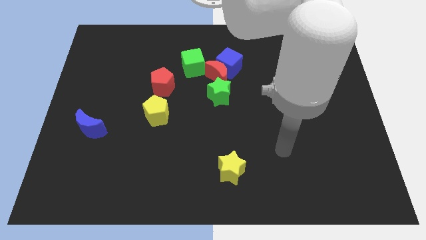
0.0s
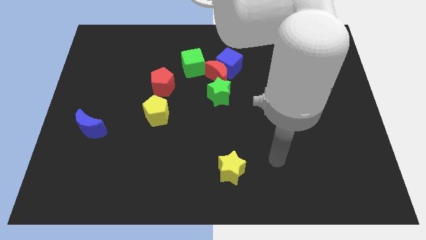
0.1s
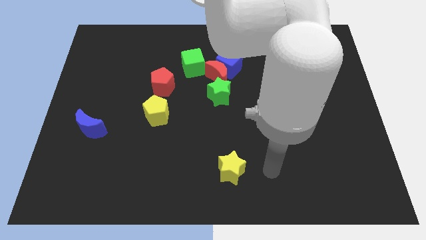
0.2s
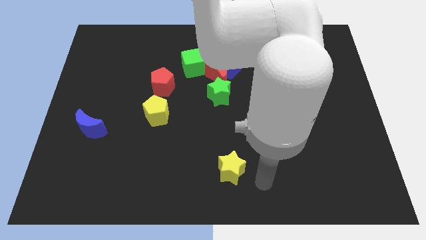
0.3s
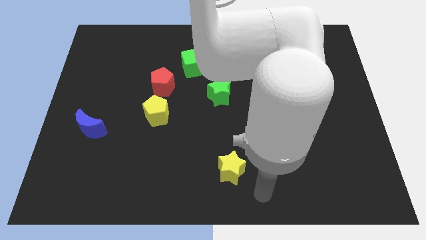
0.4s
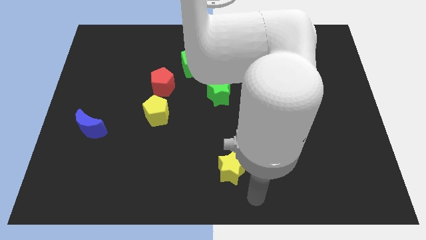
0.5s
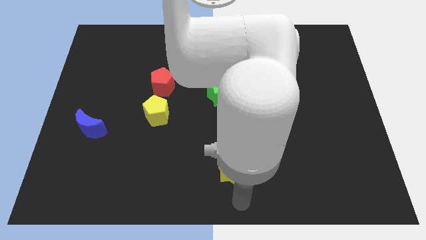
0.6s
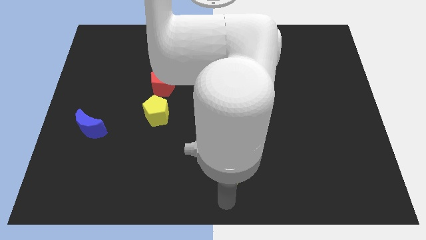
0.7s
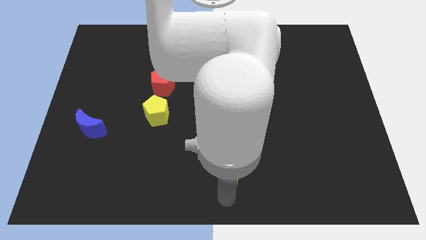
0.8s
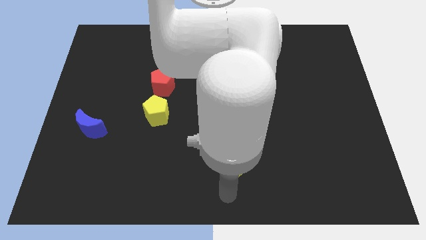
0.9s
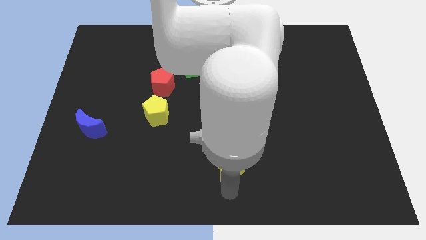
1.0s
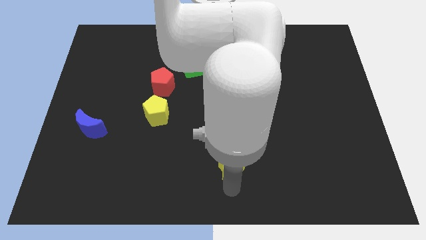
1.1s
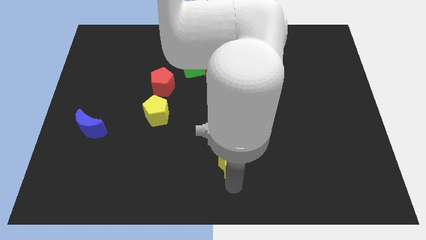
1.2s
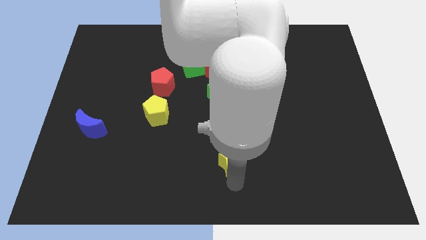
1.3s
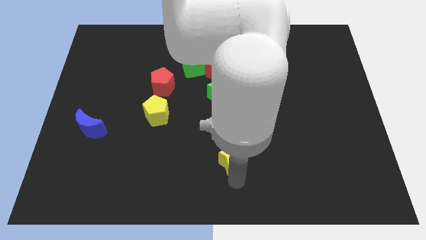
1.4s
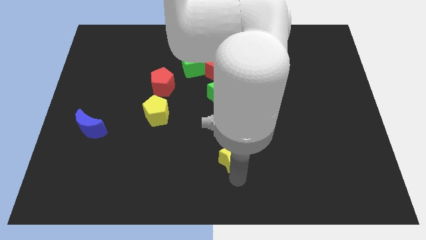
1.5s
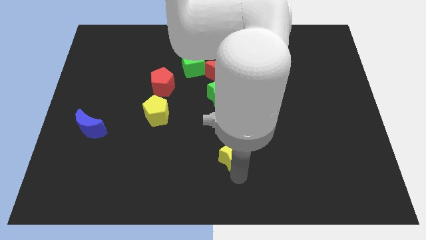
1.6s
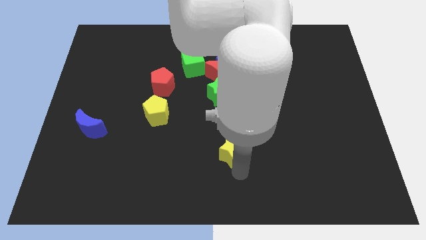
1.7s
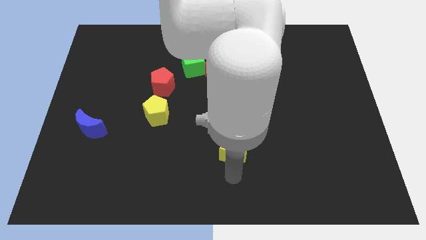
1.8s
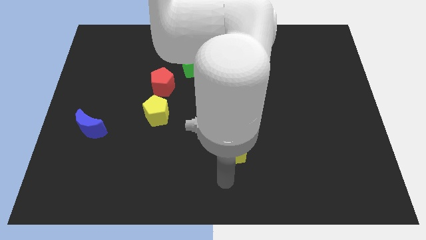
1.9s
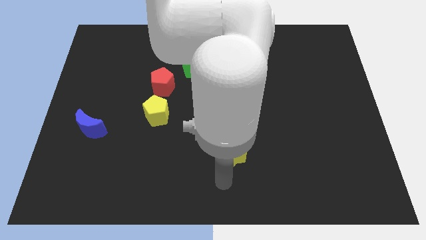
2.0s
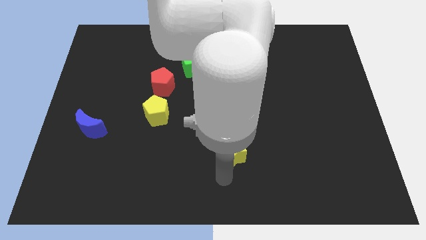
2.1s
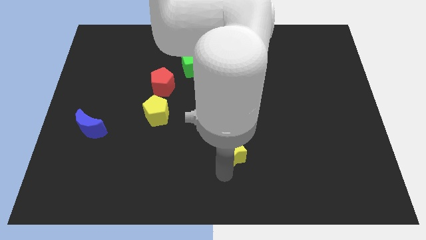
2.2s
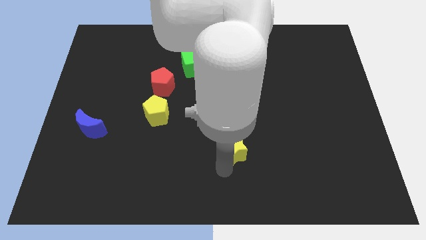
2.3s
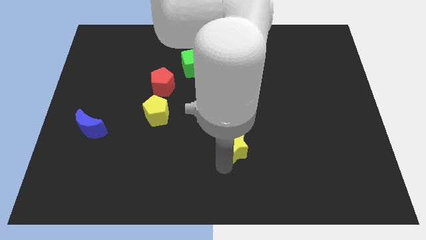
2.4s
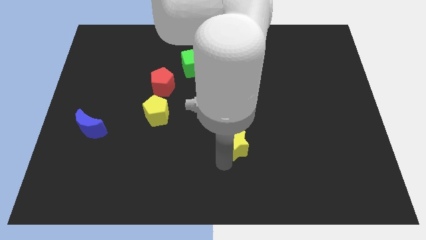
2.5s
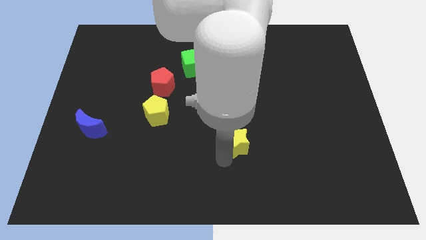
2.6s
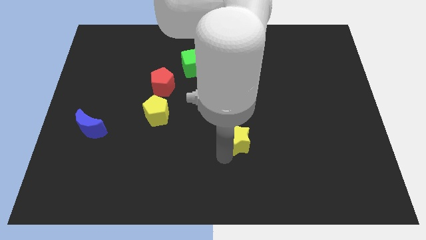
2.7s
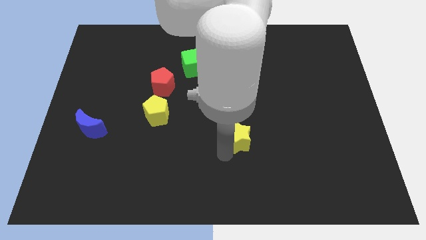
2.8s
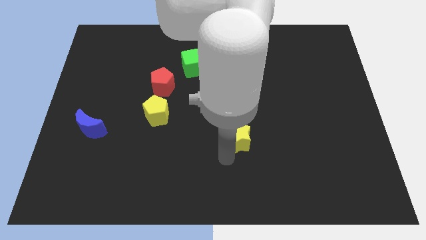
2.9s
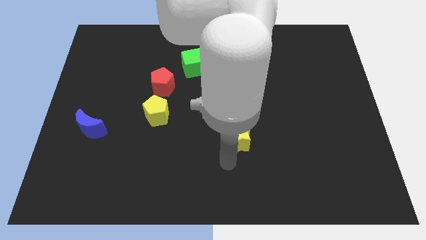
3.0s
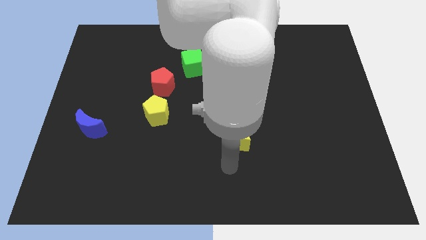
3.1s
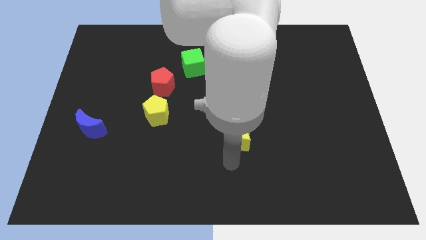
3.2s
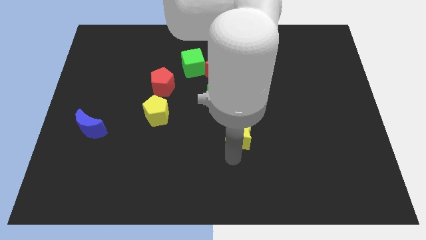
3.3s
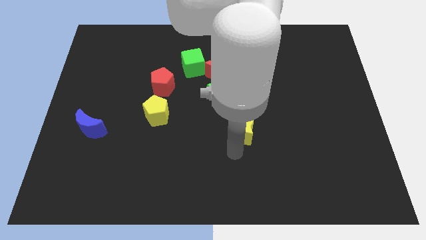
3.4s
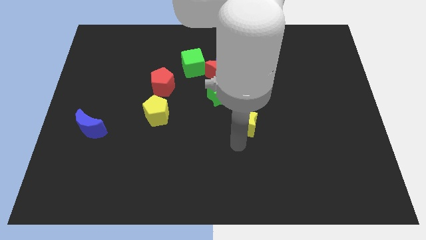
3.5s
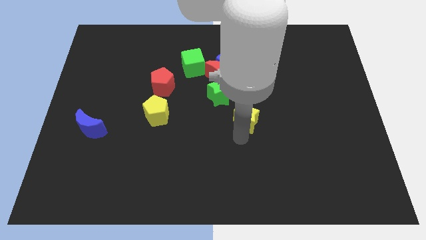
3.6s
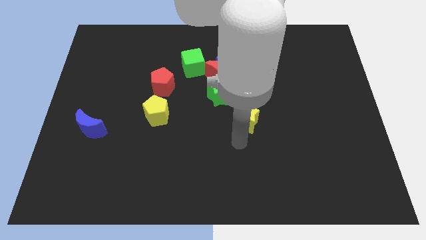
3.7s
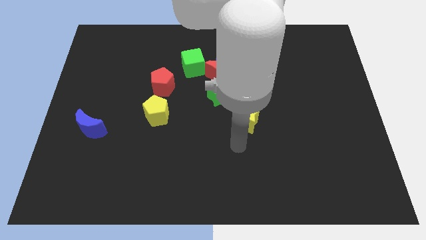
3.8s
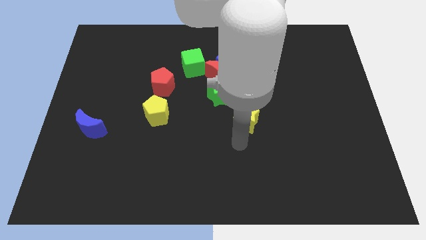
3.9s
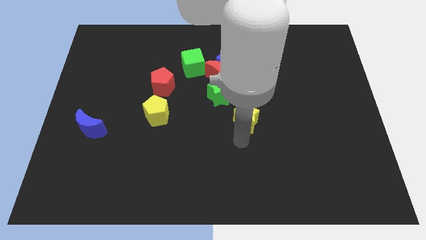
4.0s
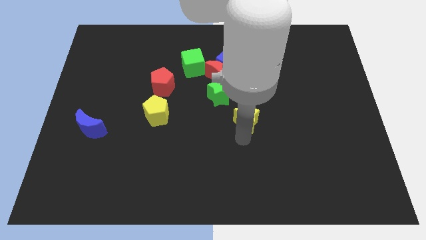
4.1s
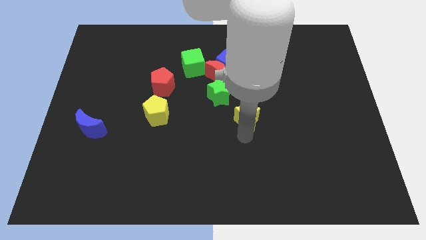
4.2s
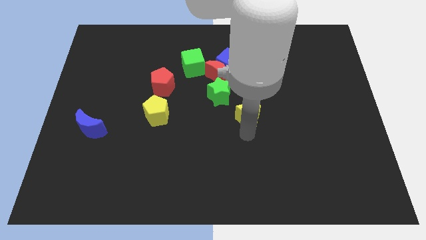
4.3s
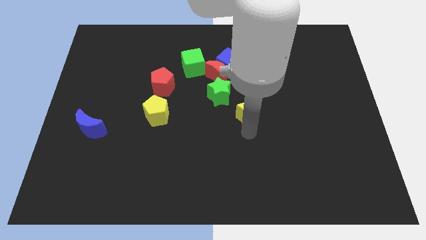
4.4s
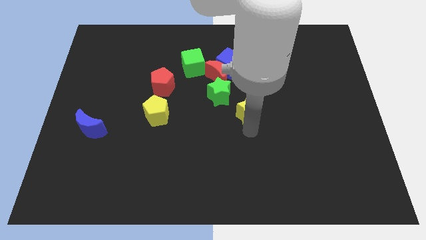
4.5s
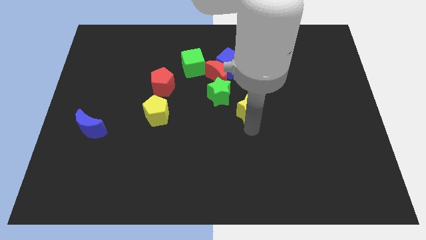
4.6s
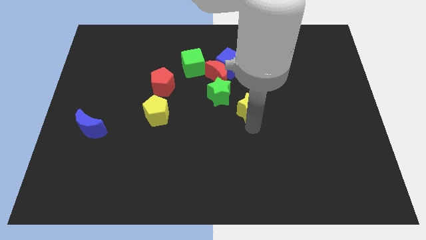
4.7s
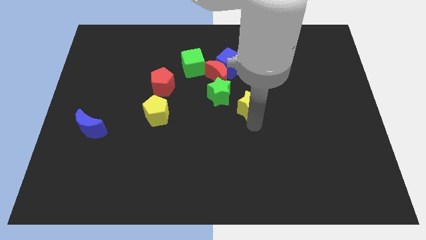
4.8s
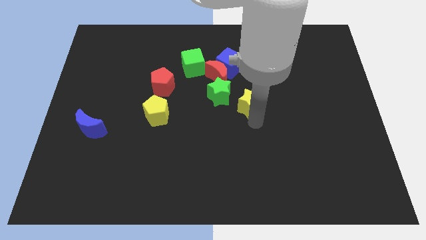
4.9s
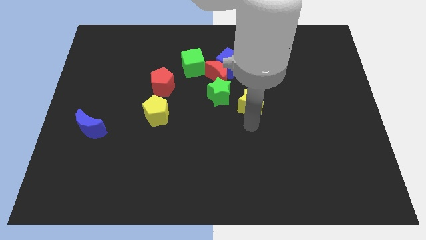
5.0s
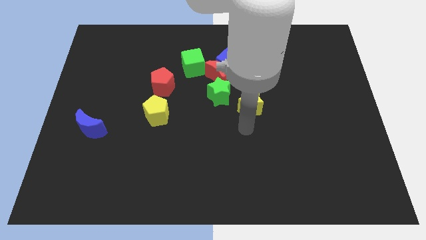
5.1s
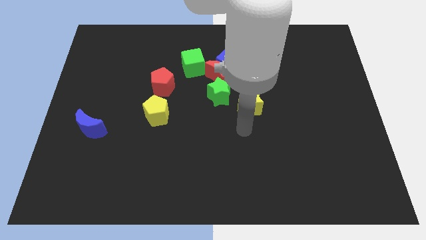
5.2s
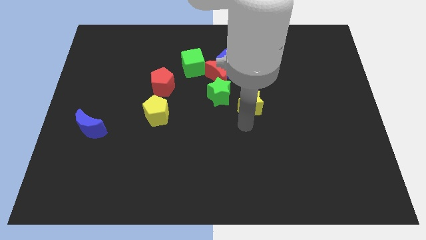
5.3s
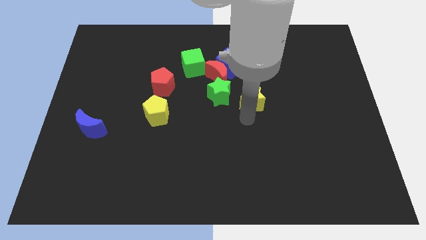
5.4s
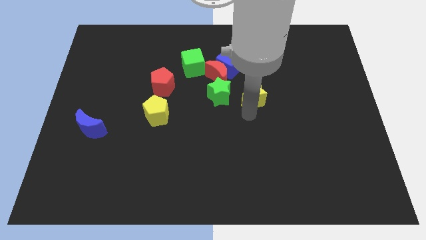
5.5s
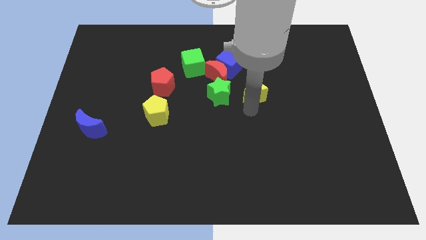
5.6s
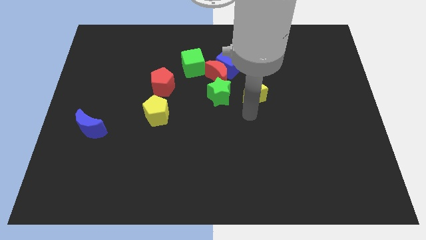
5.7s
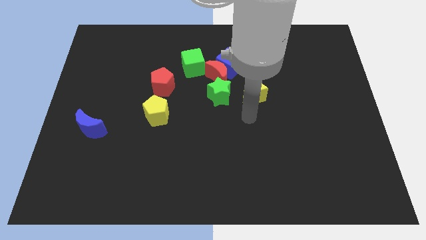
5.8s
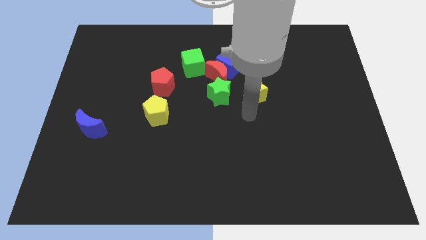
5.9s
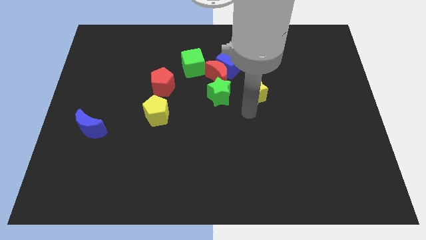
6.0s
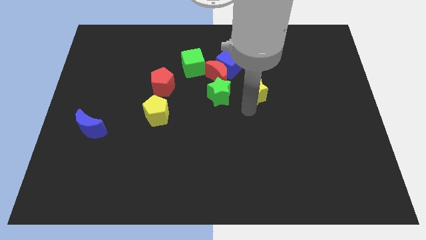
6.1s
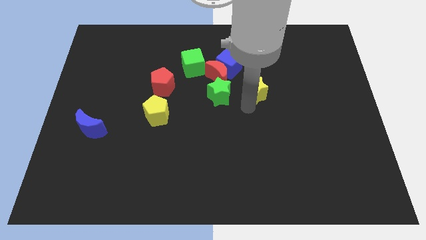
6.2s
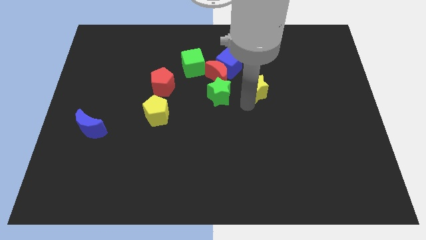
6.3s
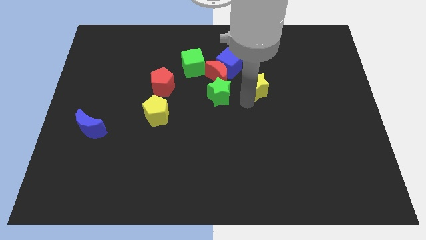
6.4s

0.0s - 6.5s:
slide the yellow star right of the red moon

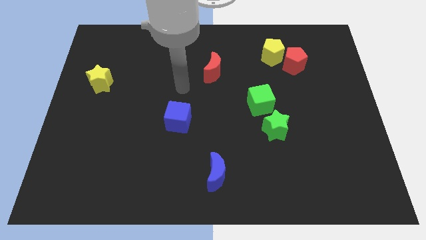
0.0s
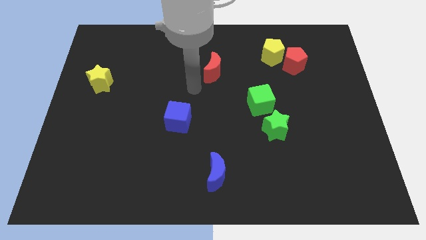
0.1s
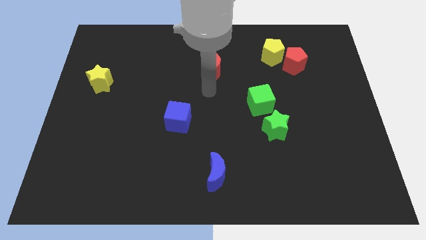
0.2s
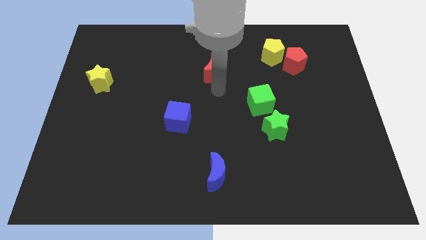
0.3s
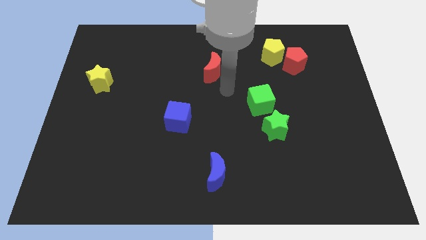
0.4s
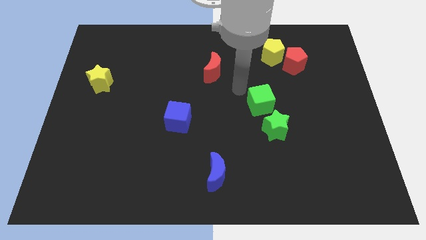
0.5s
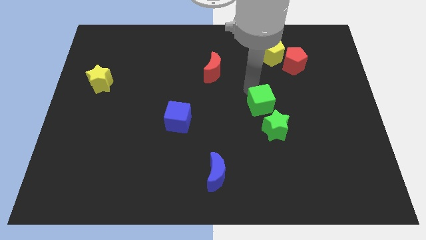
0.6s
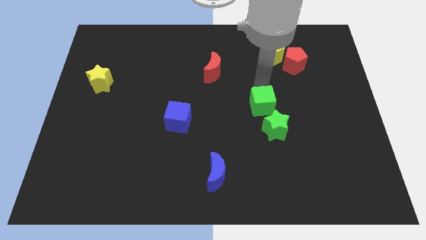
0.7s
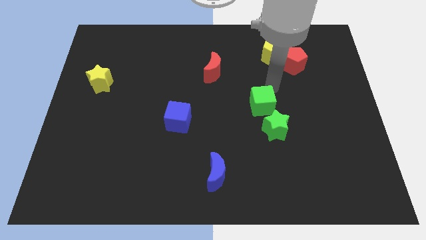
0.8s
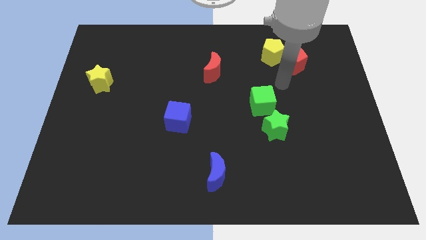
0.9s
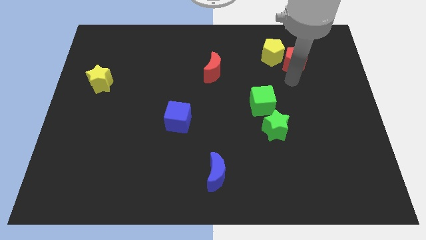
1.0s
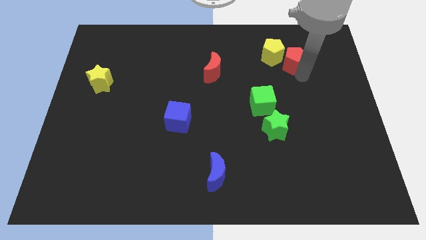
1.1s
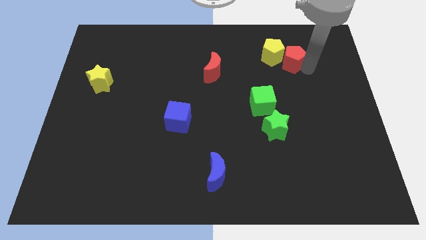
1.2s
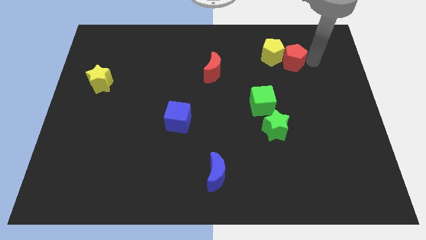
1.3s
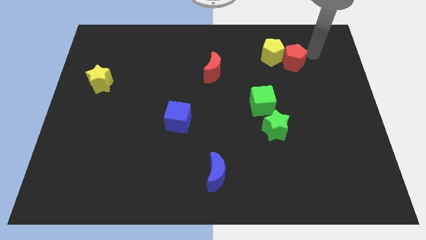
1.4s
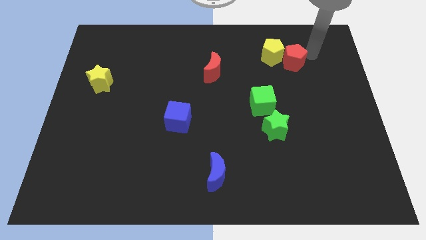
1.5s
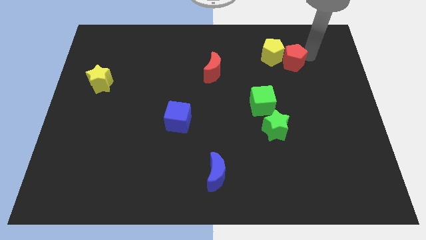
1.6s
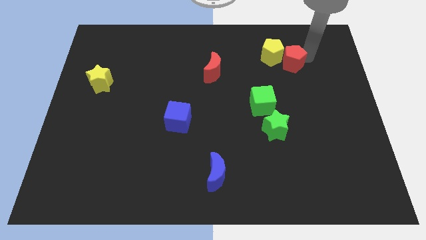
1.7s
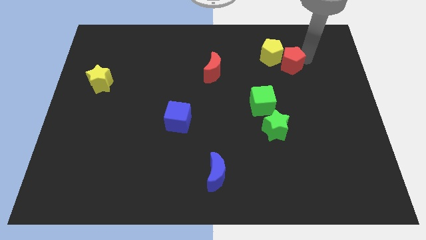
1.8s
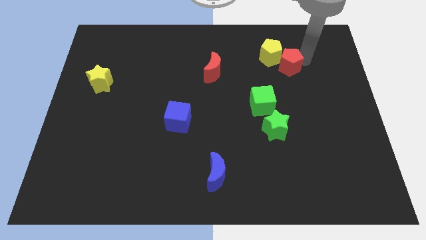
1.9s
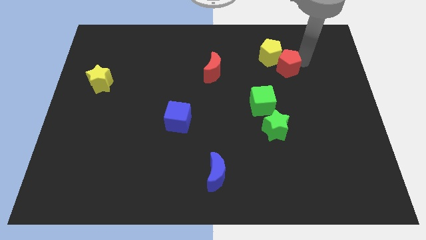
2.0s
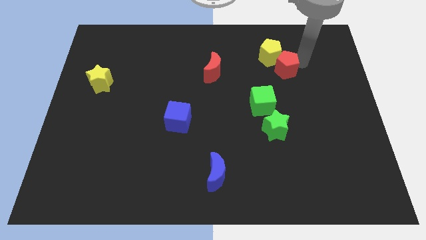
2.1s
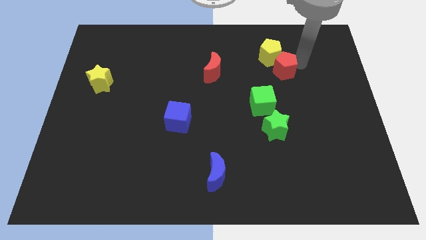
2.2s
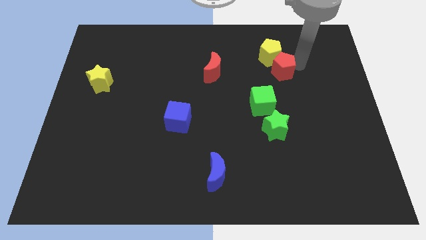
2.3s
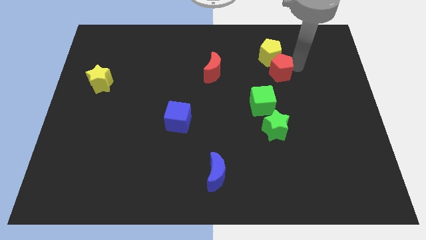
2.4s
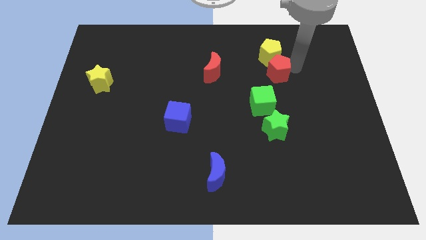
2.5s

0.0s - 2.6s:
put the red pentagon above the green cube
